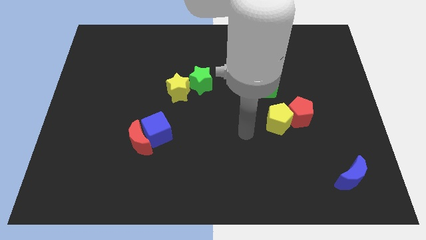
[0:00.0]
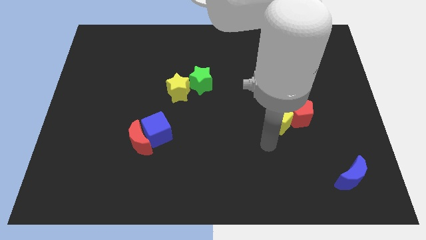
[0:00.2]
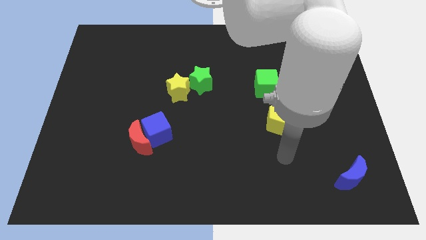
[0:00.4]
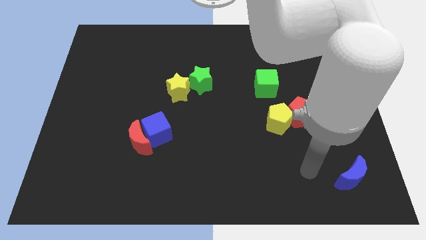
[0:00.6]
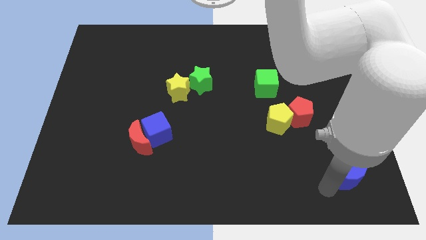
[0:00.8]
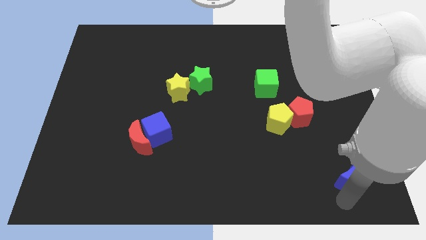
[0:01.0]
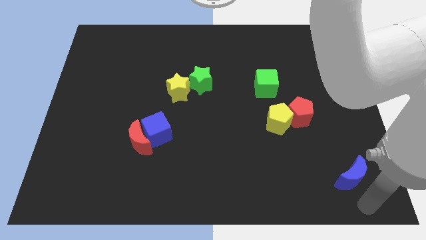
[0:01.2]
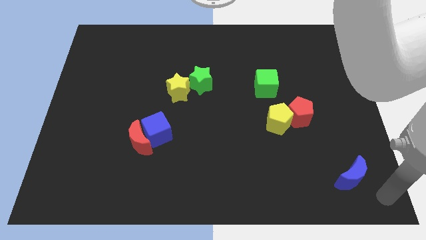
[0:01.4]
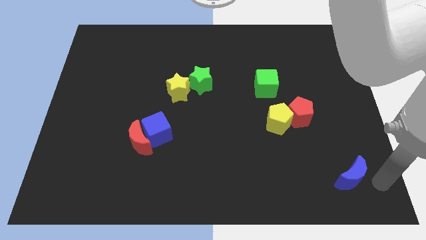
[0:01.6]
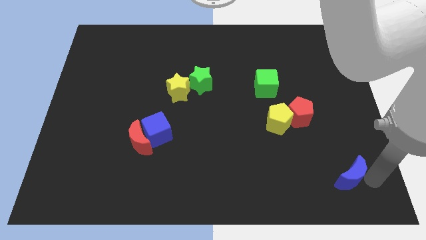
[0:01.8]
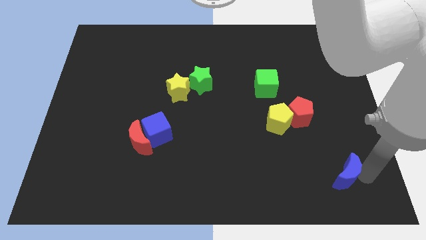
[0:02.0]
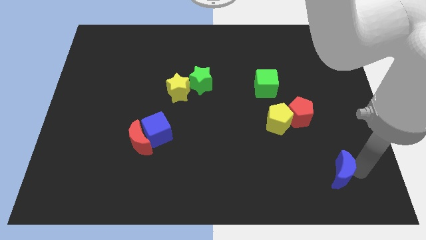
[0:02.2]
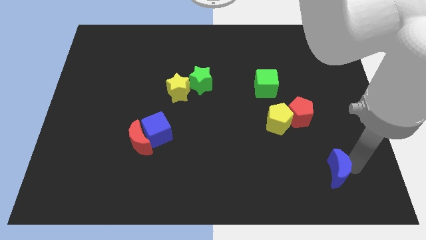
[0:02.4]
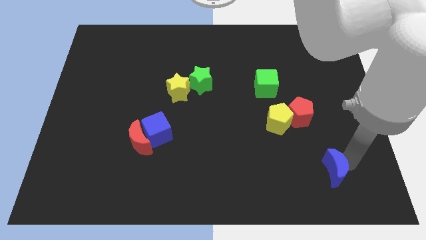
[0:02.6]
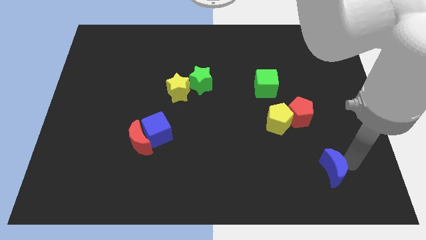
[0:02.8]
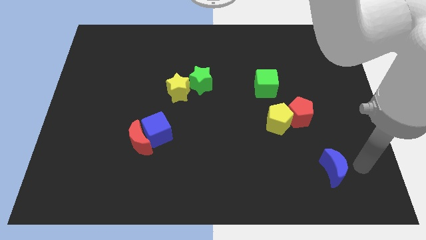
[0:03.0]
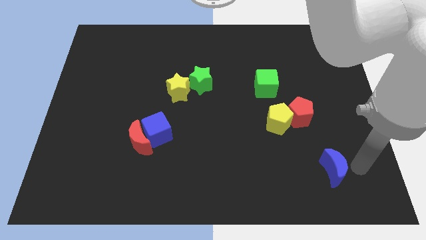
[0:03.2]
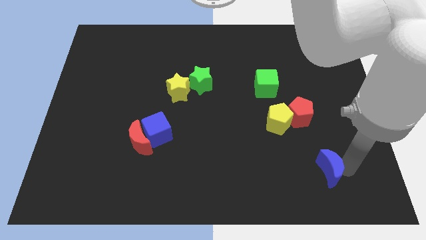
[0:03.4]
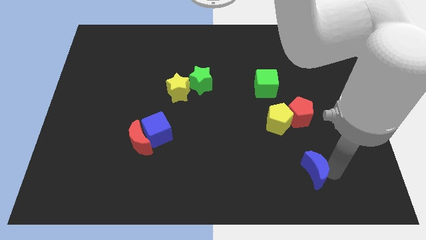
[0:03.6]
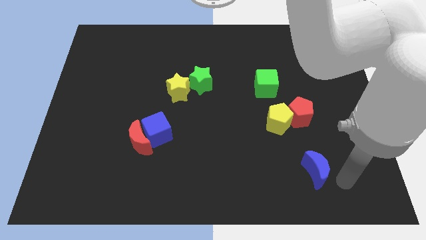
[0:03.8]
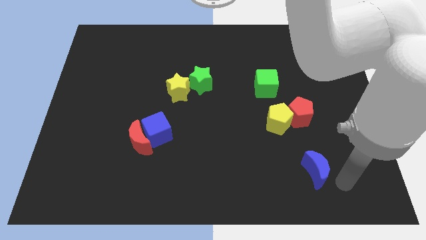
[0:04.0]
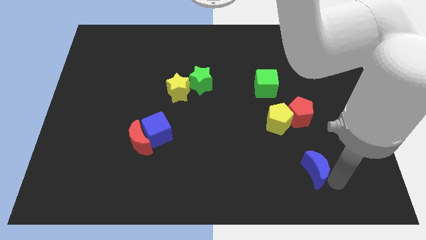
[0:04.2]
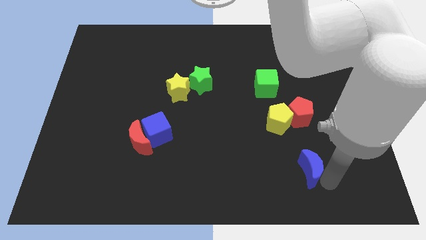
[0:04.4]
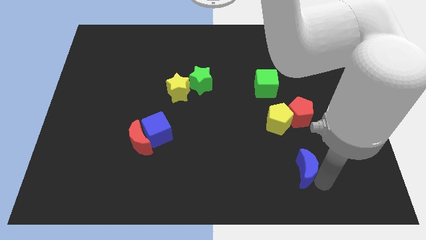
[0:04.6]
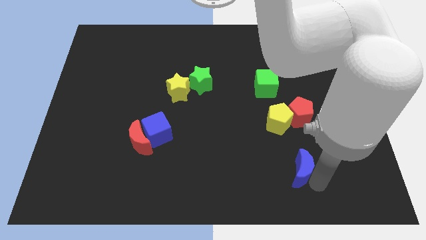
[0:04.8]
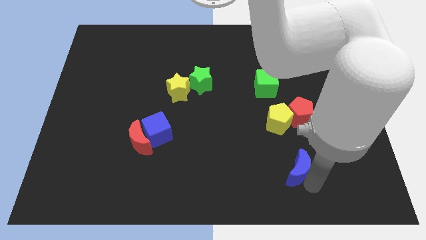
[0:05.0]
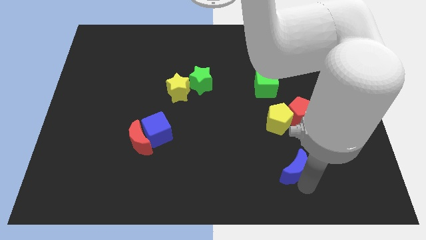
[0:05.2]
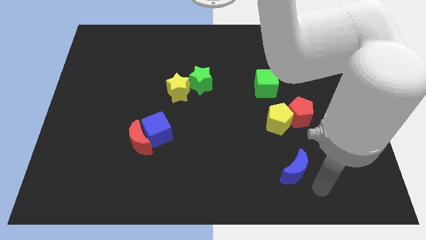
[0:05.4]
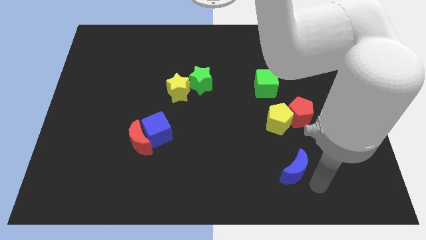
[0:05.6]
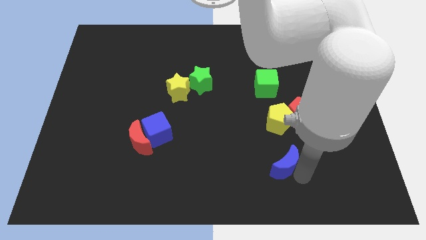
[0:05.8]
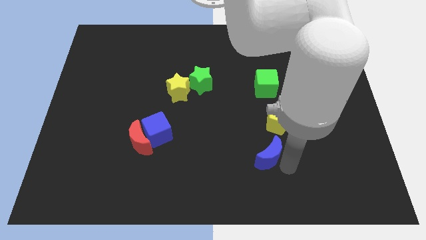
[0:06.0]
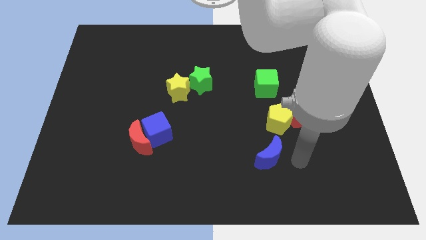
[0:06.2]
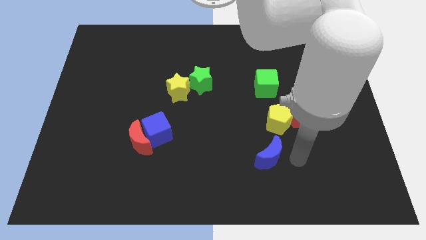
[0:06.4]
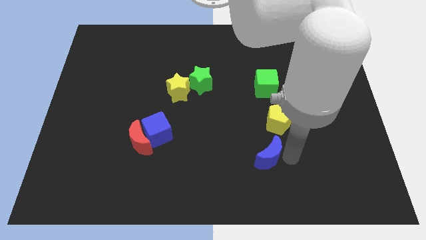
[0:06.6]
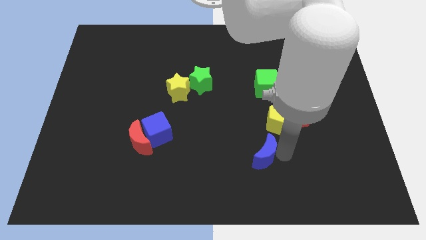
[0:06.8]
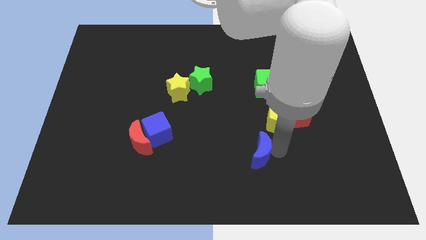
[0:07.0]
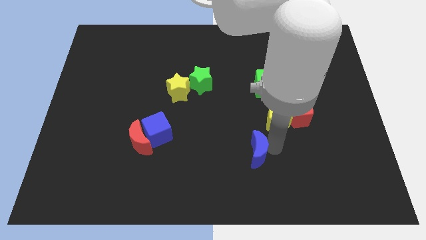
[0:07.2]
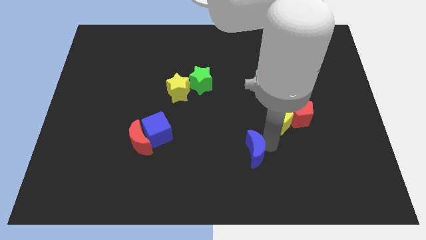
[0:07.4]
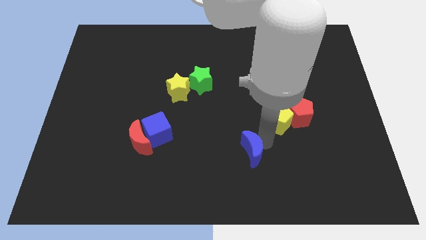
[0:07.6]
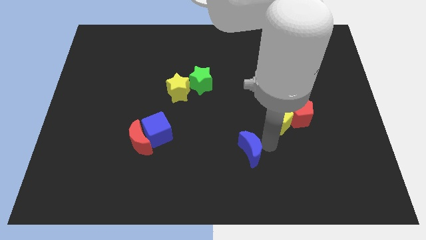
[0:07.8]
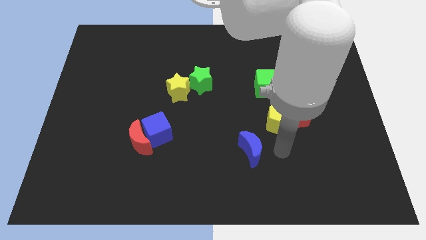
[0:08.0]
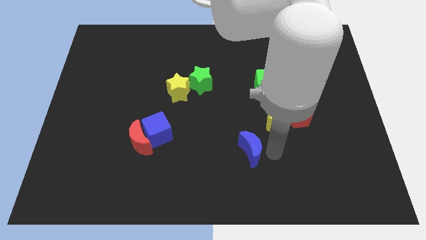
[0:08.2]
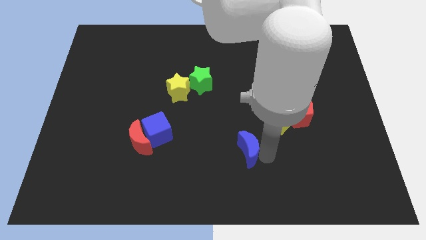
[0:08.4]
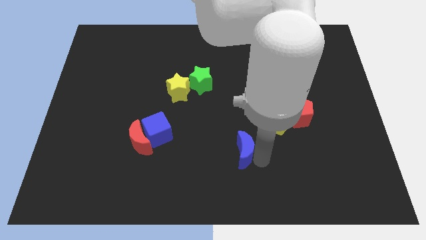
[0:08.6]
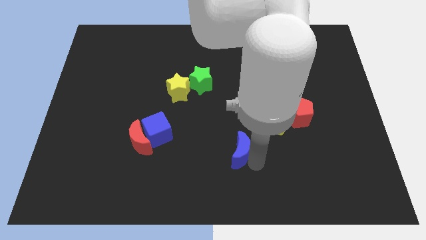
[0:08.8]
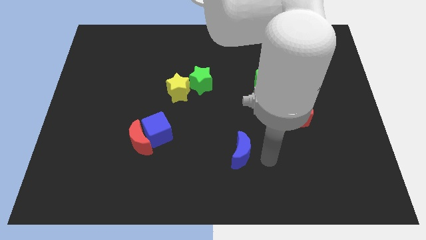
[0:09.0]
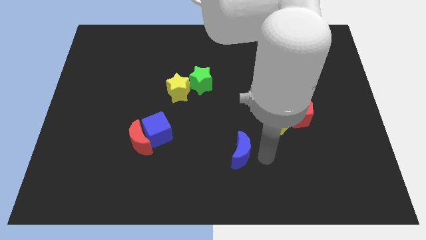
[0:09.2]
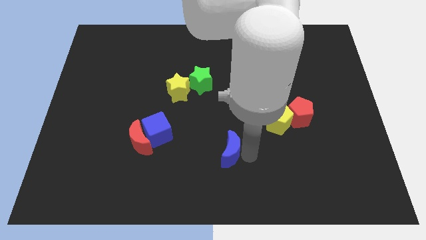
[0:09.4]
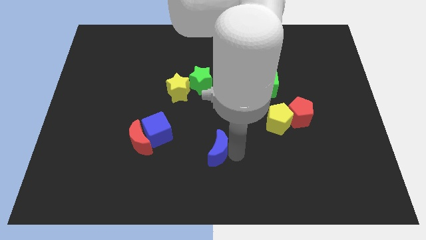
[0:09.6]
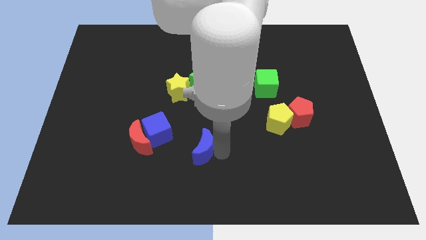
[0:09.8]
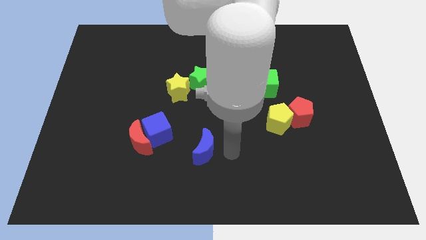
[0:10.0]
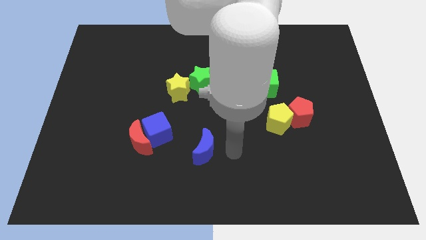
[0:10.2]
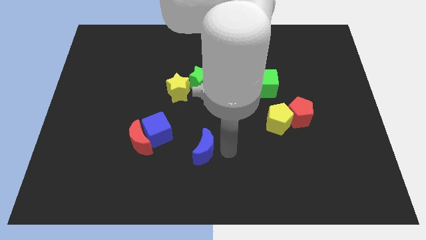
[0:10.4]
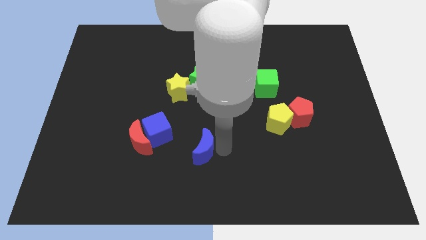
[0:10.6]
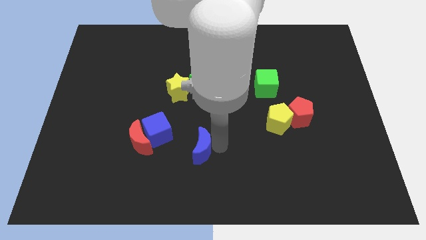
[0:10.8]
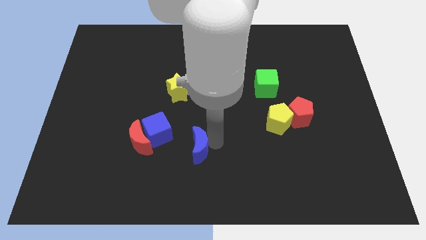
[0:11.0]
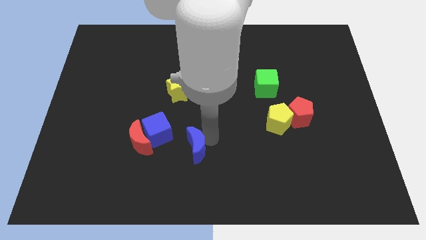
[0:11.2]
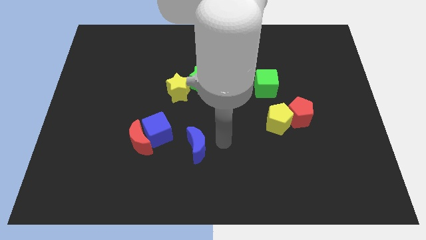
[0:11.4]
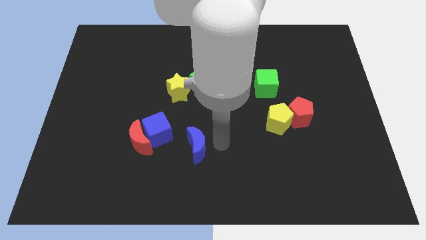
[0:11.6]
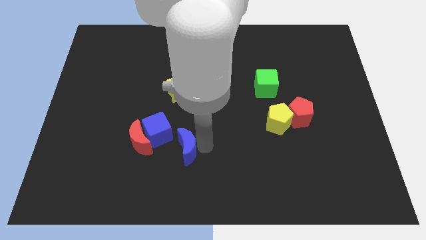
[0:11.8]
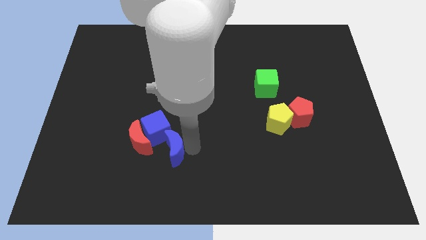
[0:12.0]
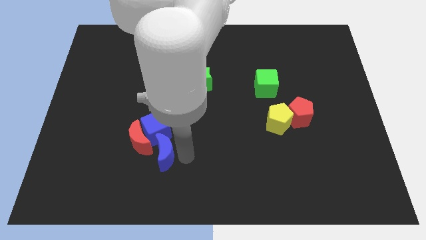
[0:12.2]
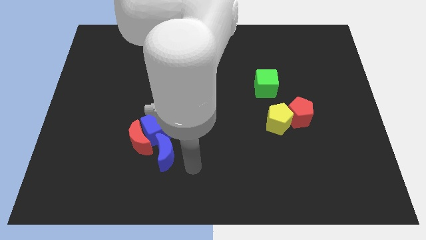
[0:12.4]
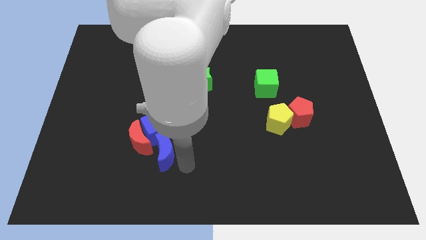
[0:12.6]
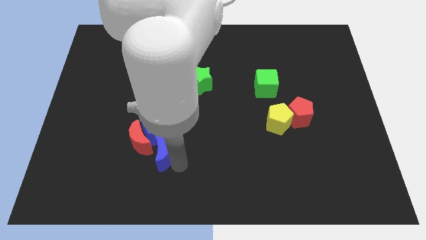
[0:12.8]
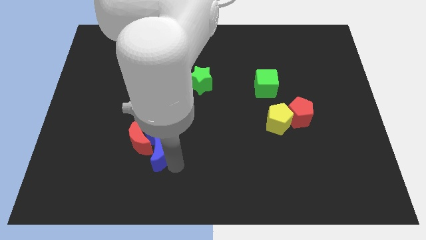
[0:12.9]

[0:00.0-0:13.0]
put the blue moon close to the red moon

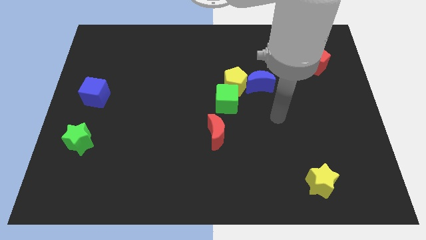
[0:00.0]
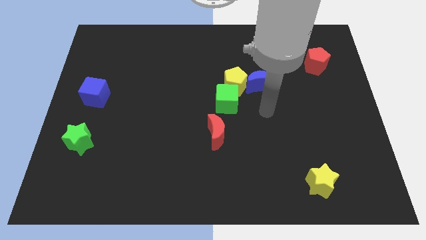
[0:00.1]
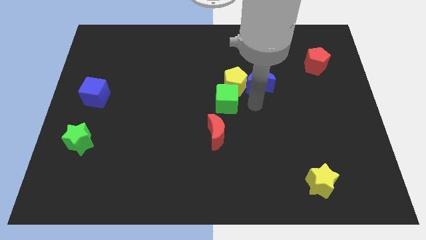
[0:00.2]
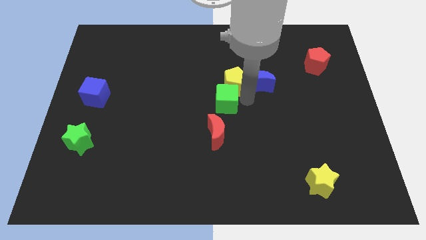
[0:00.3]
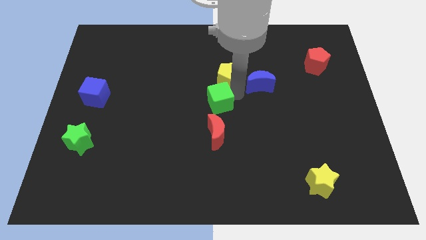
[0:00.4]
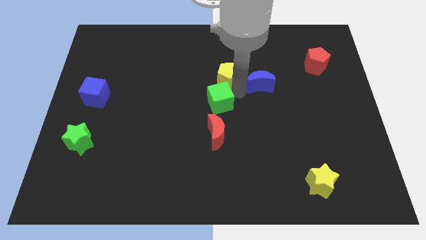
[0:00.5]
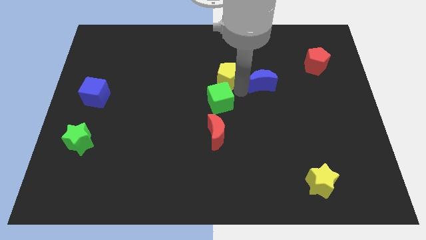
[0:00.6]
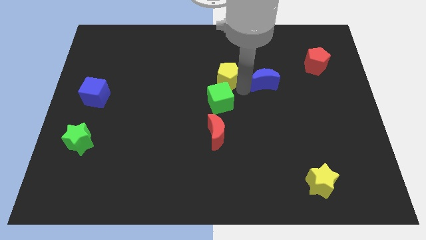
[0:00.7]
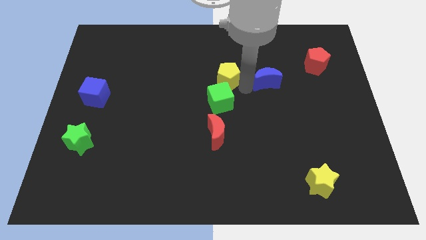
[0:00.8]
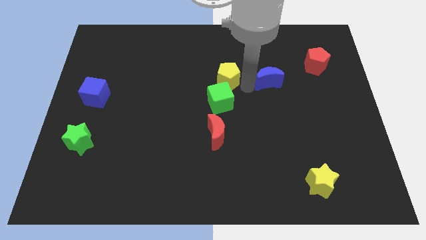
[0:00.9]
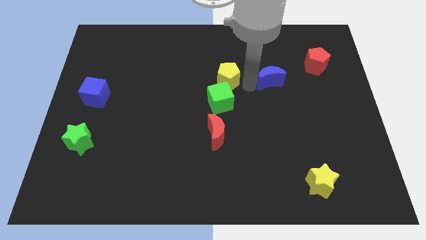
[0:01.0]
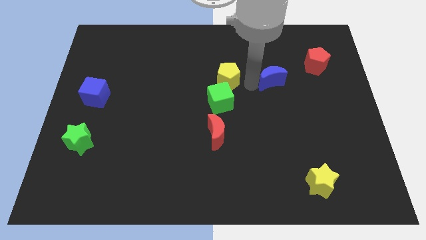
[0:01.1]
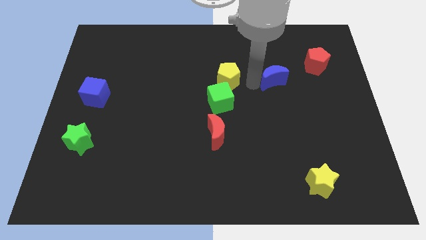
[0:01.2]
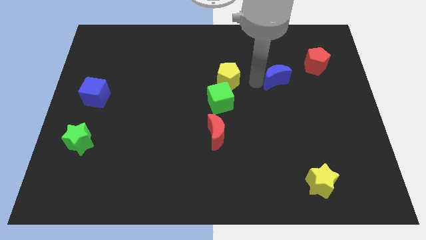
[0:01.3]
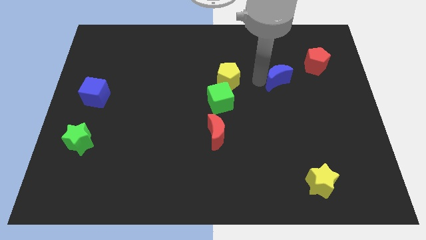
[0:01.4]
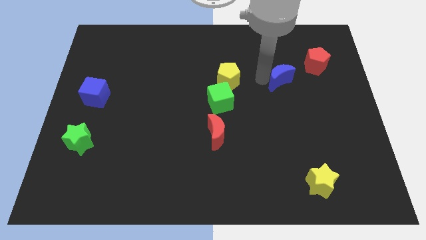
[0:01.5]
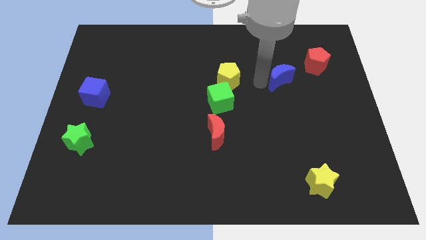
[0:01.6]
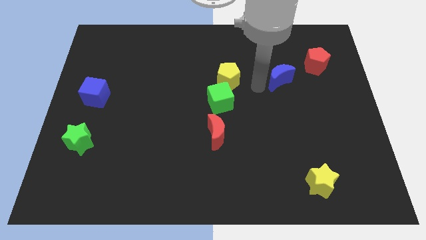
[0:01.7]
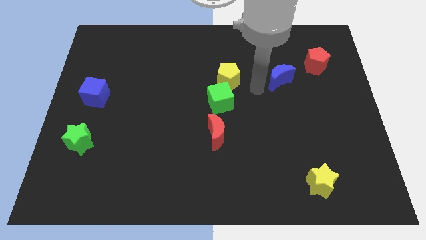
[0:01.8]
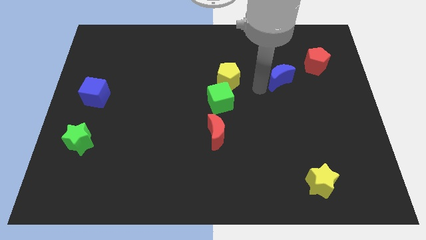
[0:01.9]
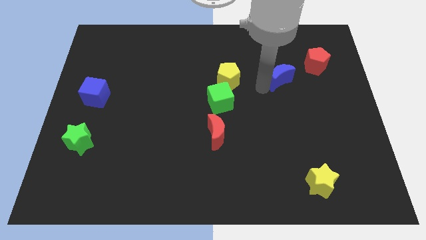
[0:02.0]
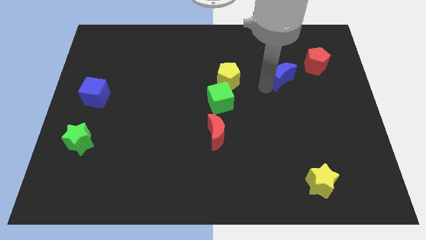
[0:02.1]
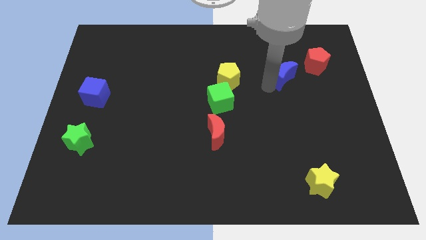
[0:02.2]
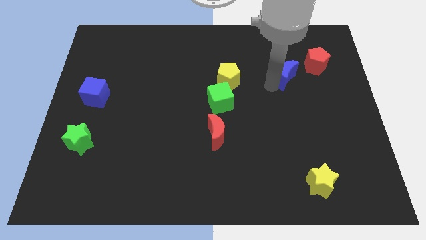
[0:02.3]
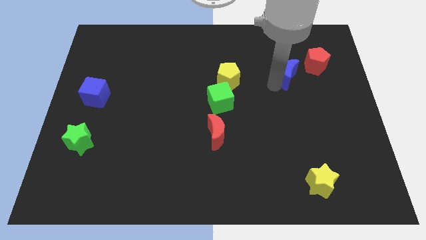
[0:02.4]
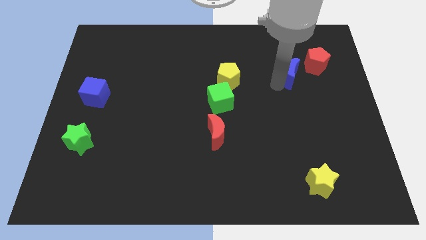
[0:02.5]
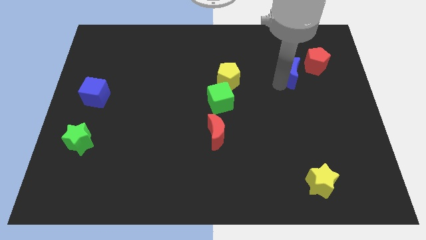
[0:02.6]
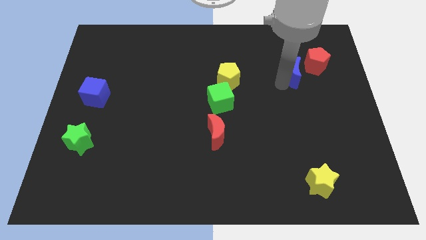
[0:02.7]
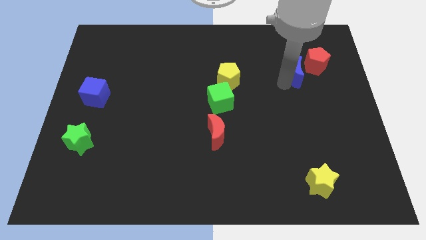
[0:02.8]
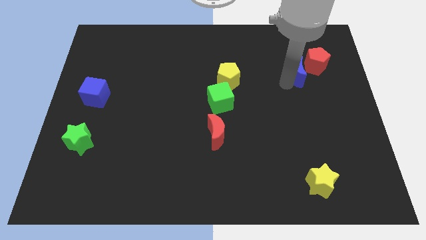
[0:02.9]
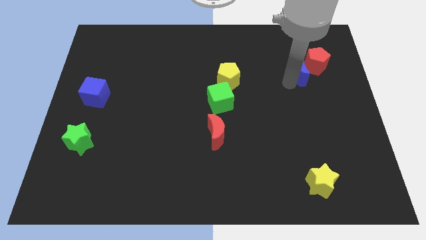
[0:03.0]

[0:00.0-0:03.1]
slide the blue moon to the red pentagon
